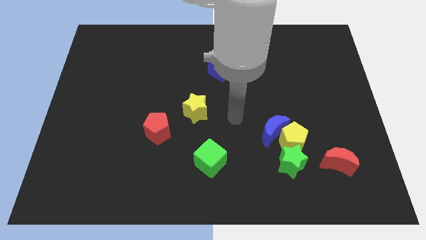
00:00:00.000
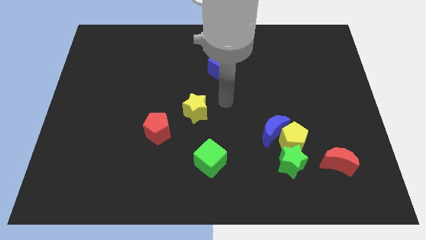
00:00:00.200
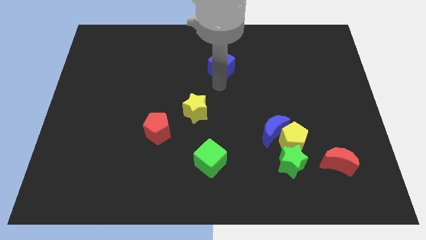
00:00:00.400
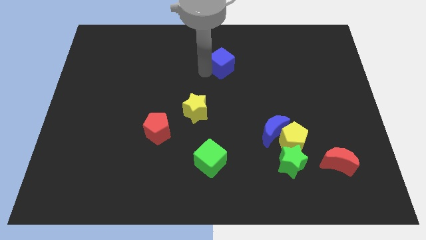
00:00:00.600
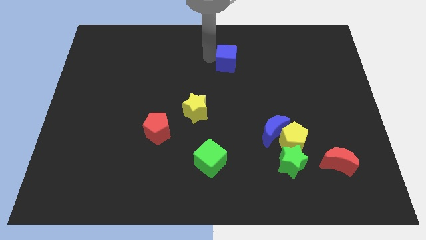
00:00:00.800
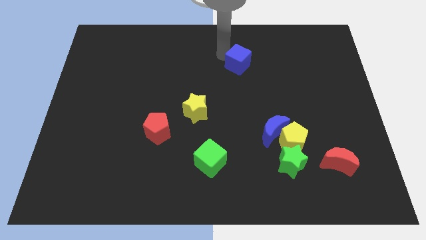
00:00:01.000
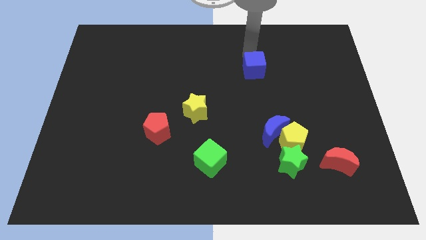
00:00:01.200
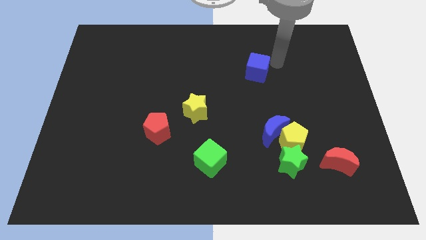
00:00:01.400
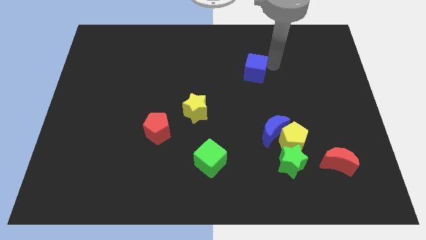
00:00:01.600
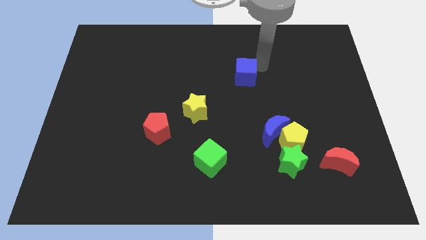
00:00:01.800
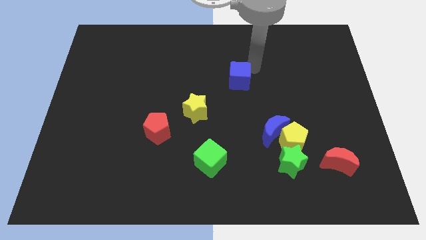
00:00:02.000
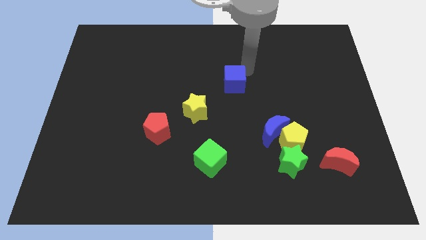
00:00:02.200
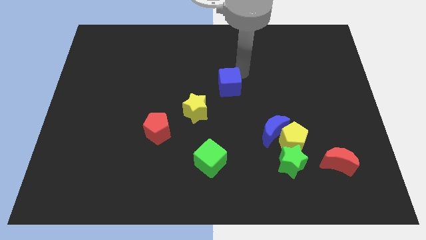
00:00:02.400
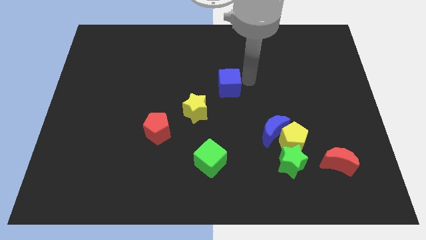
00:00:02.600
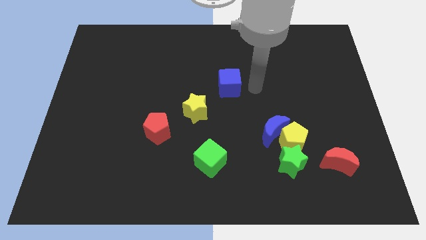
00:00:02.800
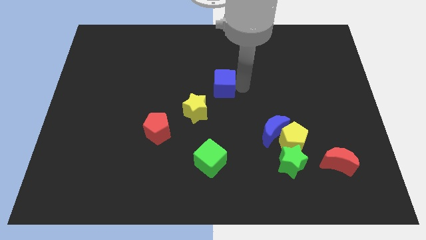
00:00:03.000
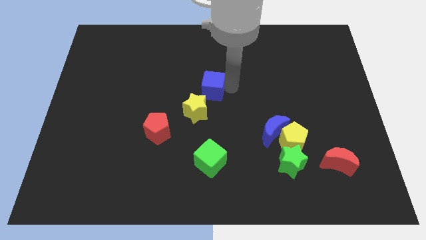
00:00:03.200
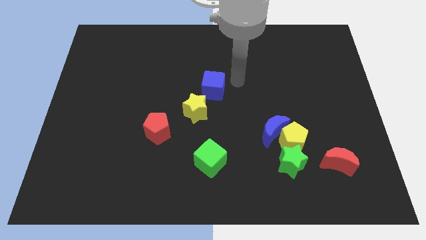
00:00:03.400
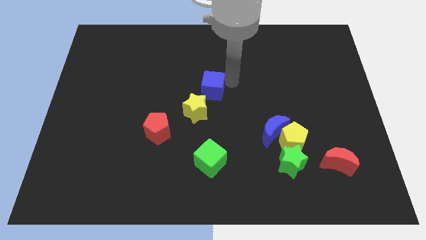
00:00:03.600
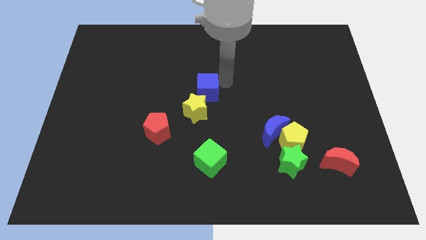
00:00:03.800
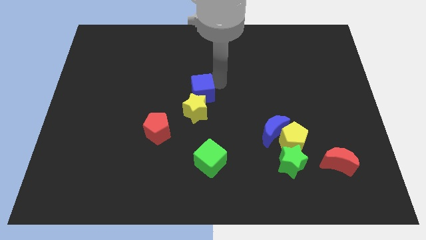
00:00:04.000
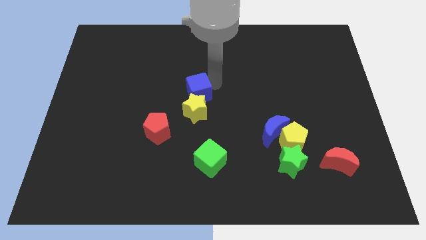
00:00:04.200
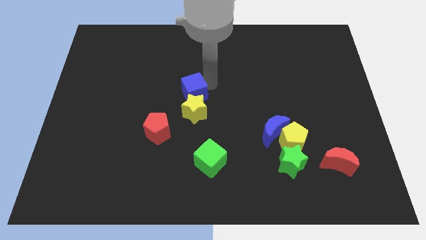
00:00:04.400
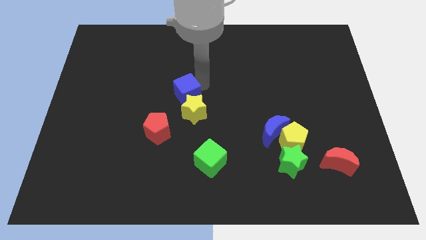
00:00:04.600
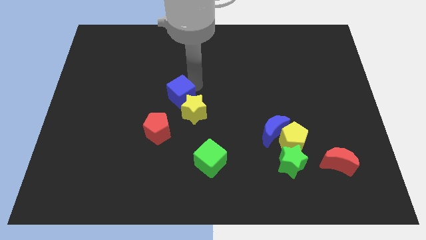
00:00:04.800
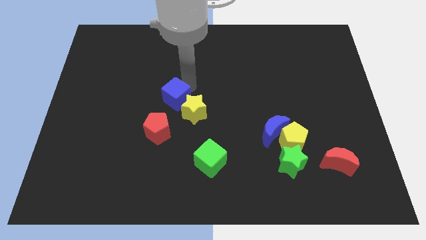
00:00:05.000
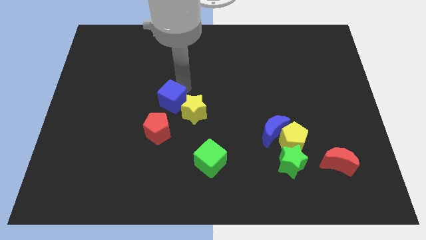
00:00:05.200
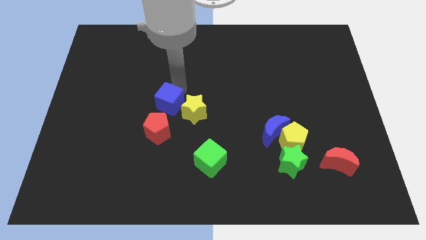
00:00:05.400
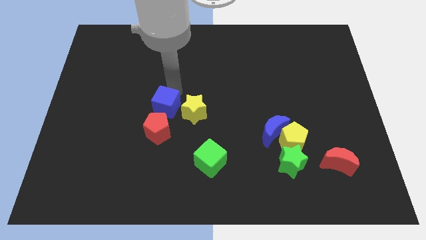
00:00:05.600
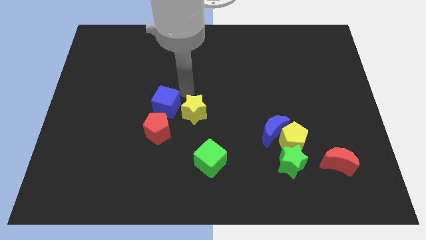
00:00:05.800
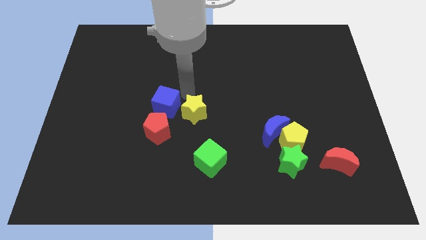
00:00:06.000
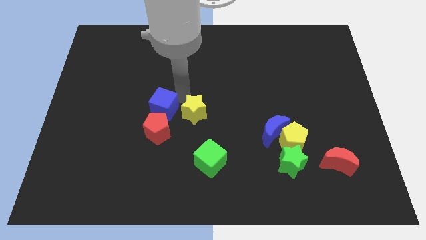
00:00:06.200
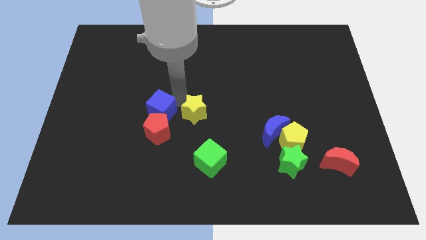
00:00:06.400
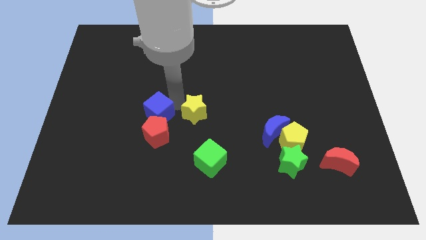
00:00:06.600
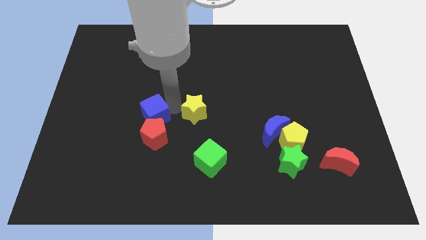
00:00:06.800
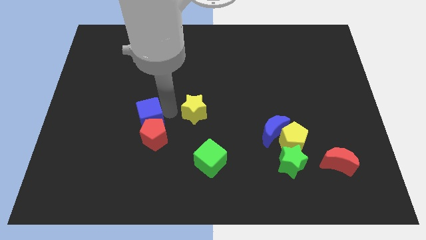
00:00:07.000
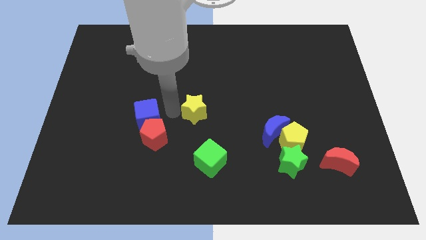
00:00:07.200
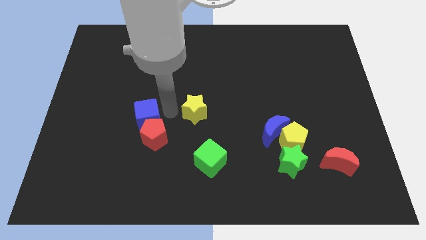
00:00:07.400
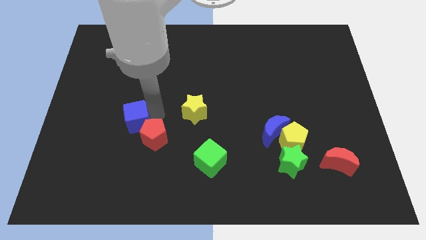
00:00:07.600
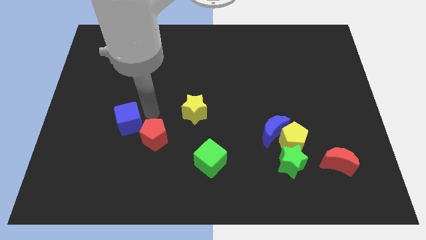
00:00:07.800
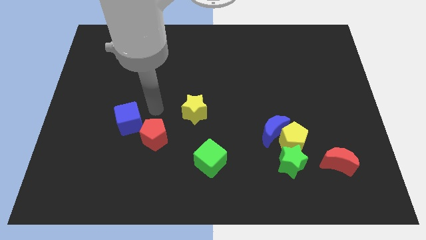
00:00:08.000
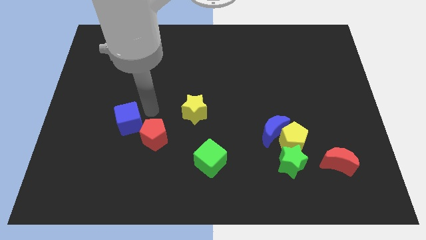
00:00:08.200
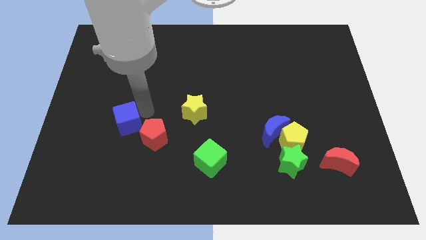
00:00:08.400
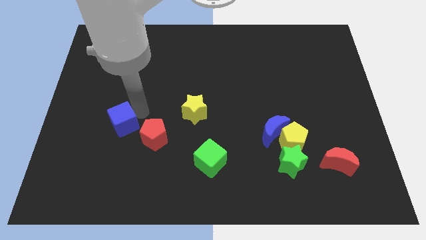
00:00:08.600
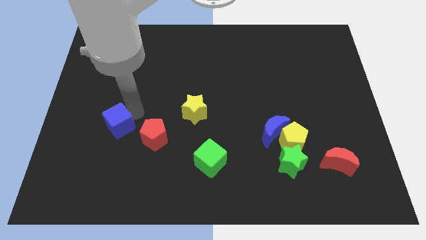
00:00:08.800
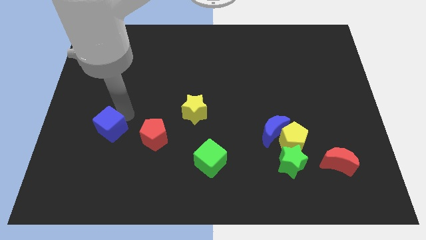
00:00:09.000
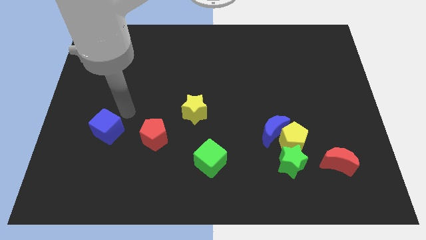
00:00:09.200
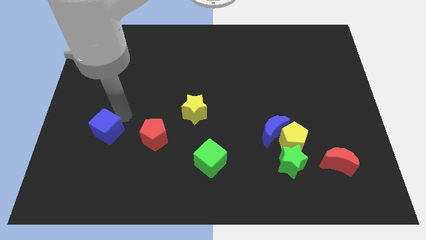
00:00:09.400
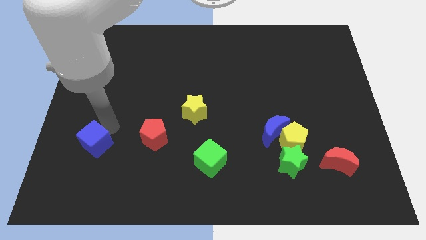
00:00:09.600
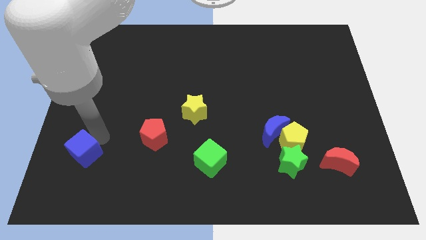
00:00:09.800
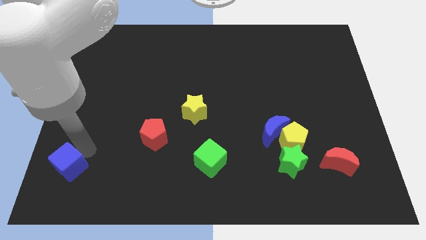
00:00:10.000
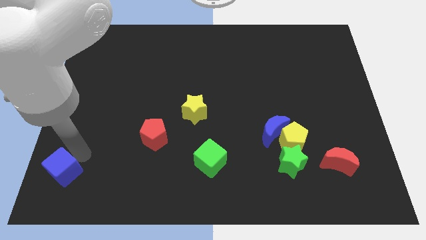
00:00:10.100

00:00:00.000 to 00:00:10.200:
put the blue cube to the bottom left of the board

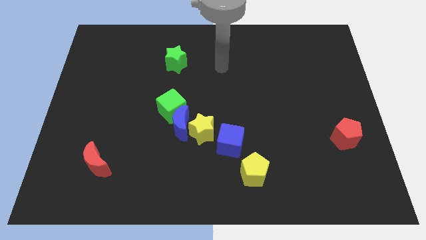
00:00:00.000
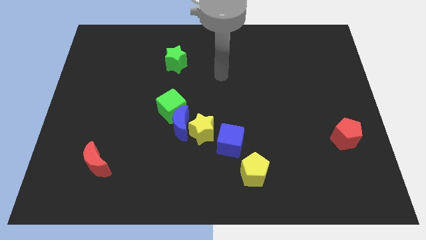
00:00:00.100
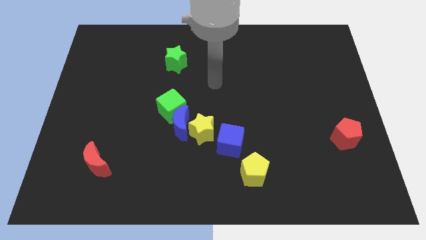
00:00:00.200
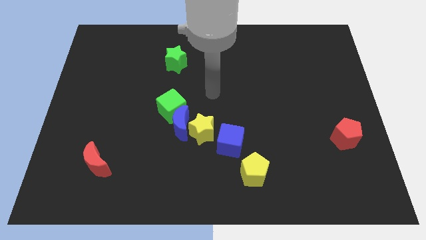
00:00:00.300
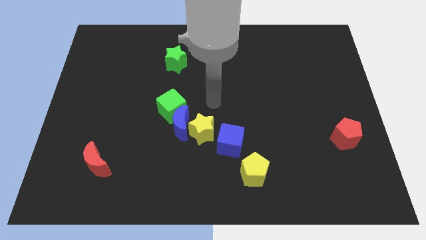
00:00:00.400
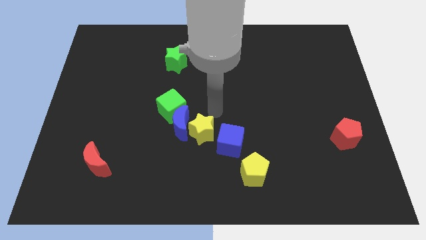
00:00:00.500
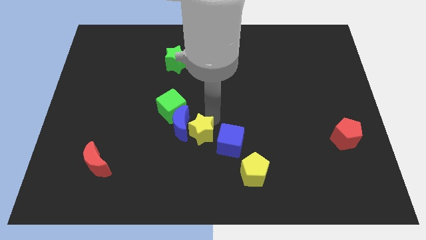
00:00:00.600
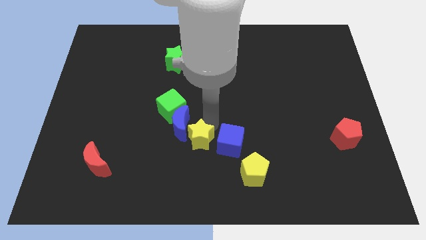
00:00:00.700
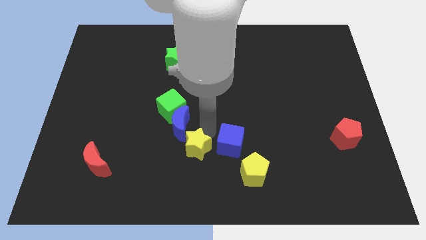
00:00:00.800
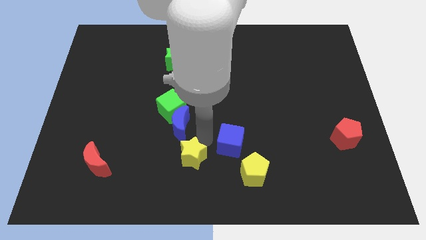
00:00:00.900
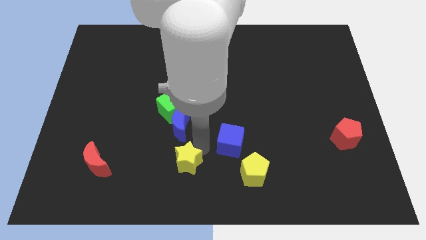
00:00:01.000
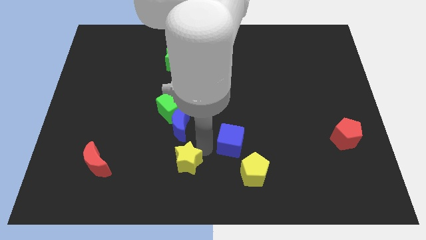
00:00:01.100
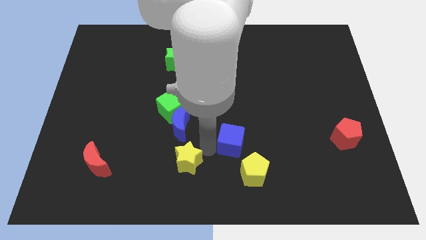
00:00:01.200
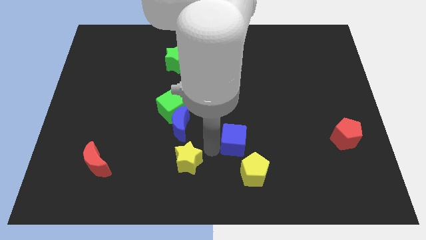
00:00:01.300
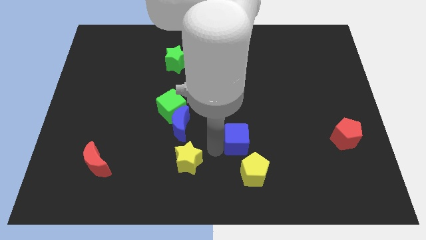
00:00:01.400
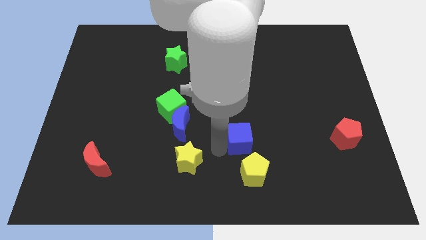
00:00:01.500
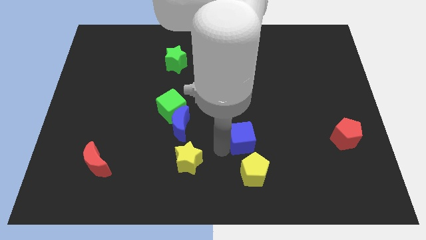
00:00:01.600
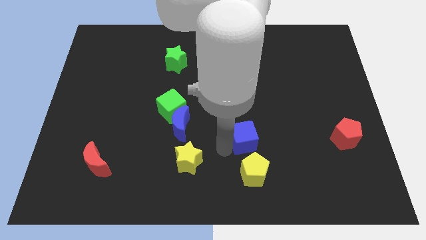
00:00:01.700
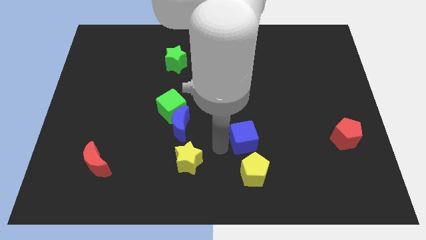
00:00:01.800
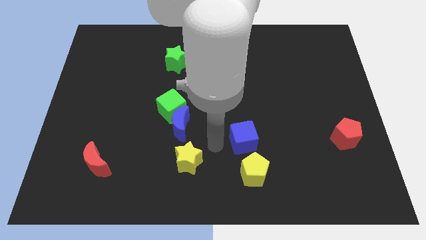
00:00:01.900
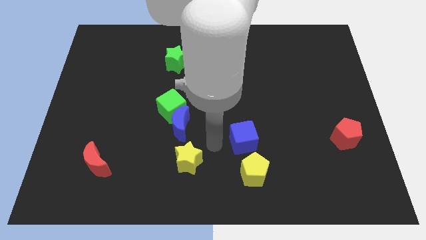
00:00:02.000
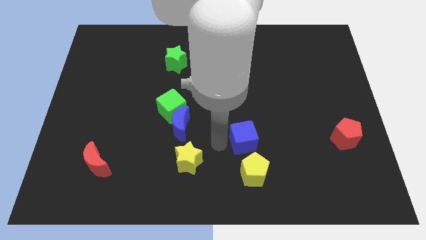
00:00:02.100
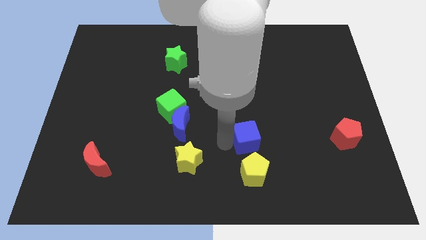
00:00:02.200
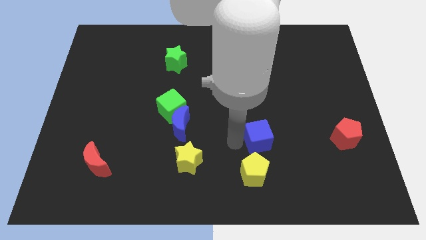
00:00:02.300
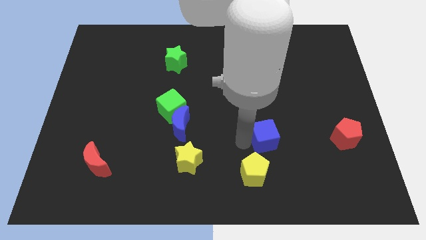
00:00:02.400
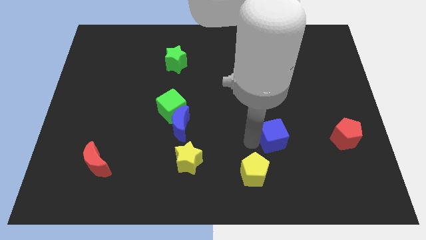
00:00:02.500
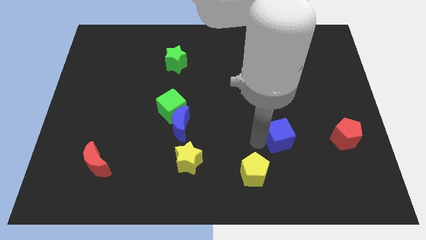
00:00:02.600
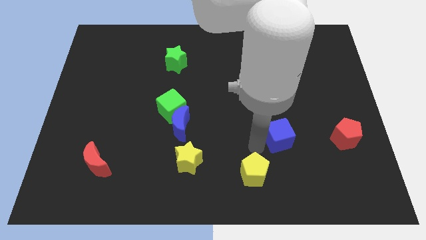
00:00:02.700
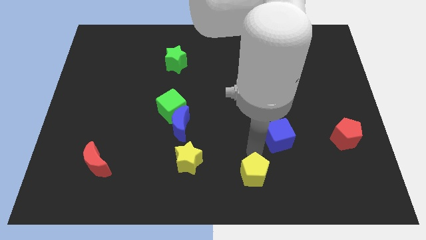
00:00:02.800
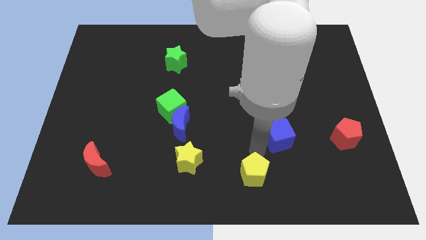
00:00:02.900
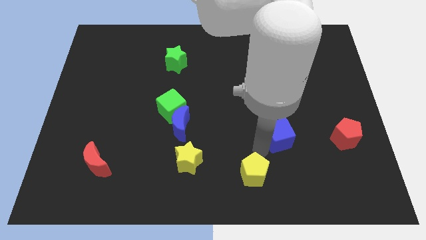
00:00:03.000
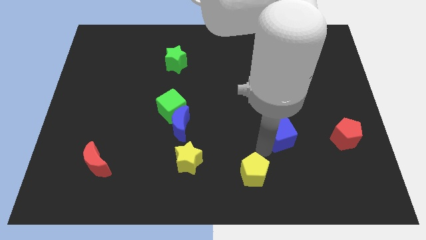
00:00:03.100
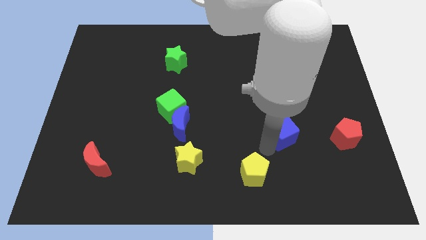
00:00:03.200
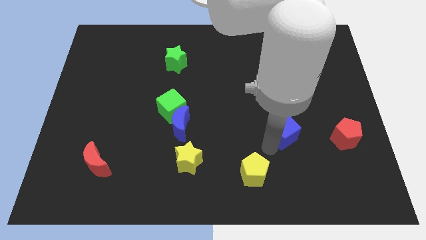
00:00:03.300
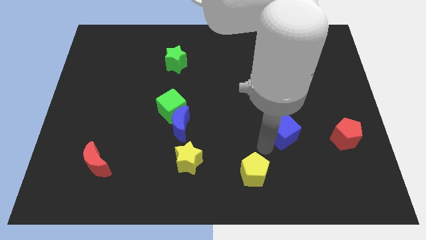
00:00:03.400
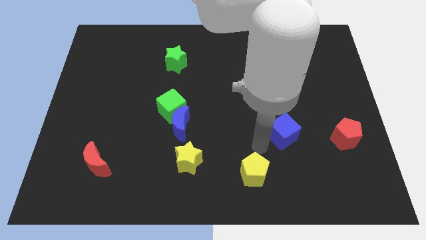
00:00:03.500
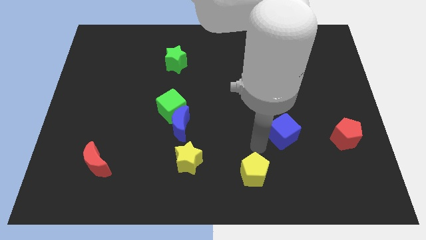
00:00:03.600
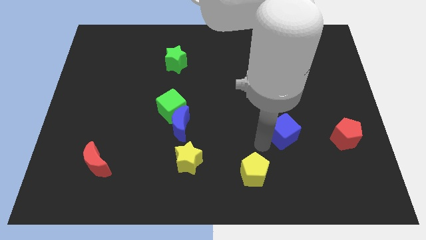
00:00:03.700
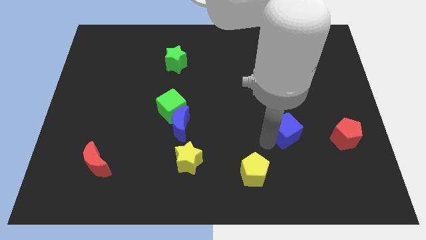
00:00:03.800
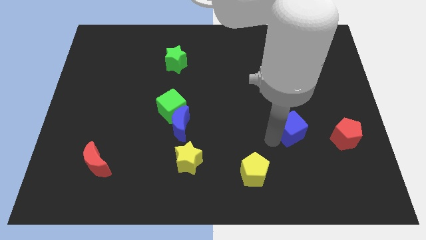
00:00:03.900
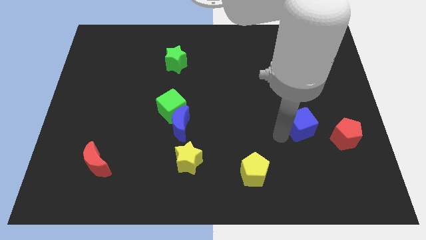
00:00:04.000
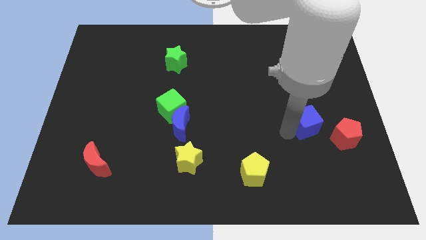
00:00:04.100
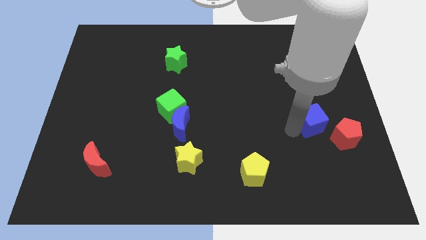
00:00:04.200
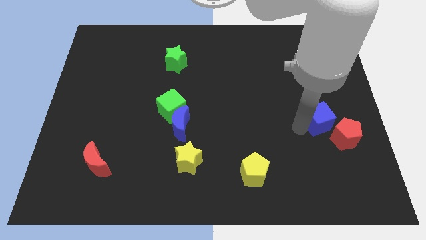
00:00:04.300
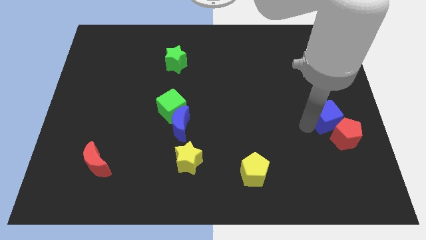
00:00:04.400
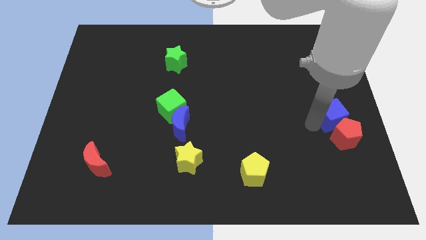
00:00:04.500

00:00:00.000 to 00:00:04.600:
slide the blue cube to the right side of the board
